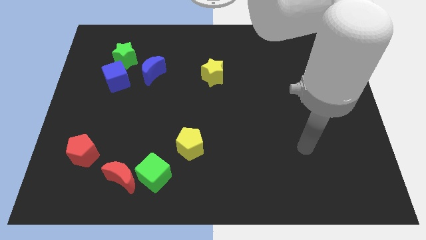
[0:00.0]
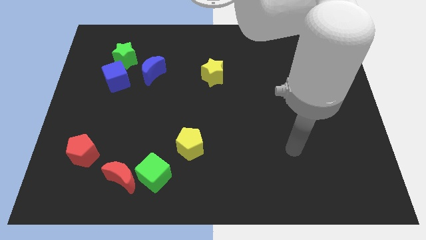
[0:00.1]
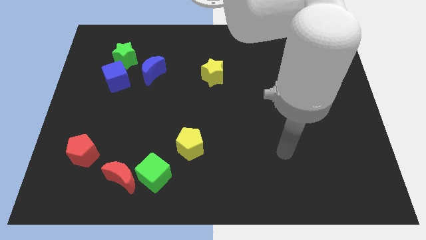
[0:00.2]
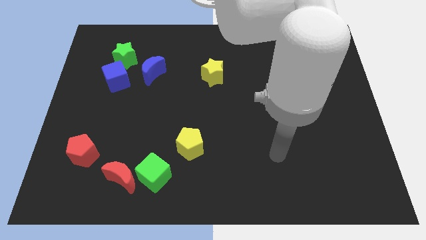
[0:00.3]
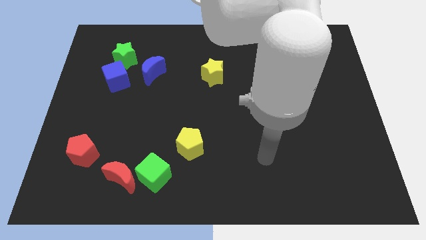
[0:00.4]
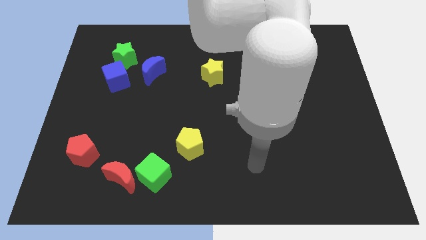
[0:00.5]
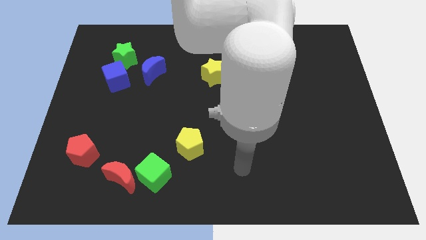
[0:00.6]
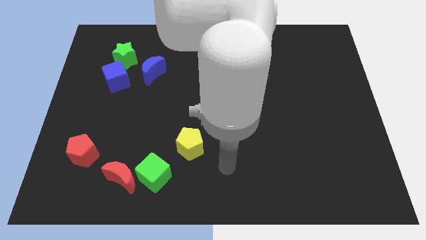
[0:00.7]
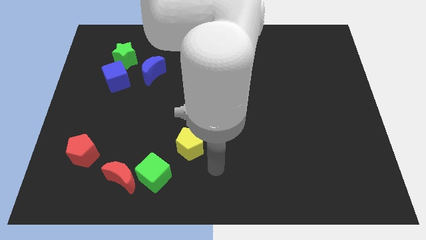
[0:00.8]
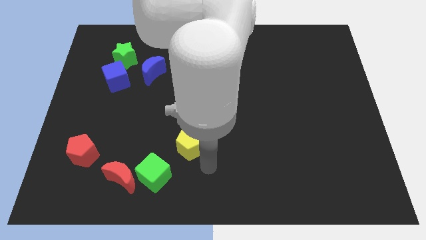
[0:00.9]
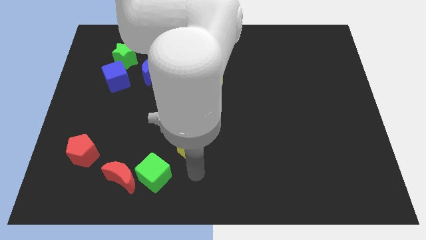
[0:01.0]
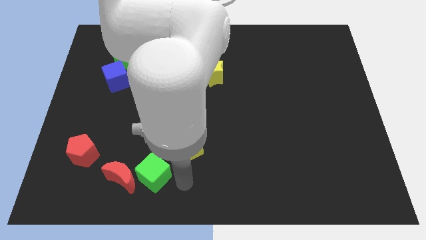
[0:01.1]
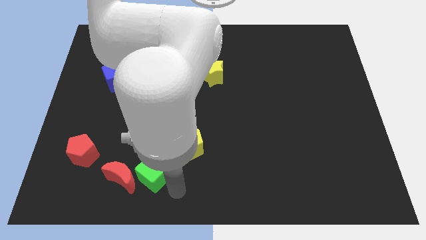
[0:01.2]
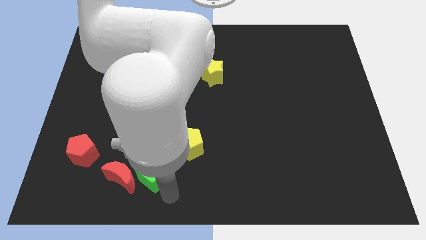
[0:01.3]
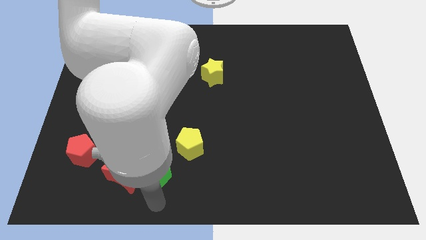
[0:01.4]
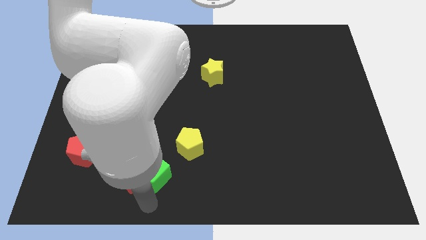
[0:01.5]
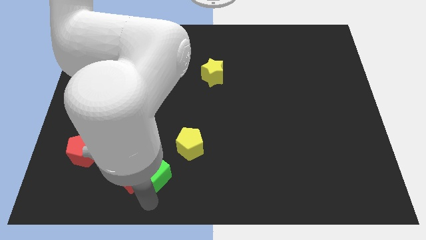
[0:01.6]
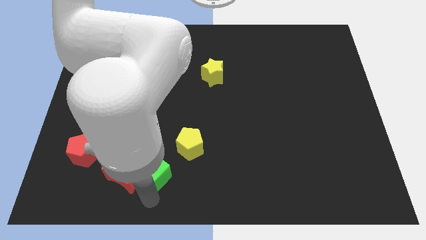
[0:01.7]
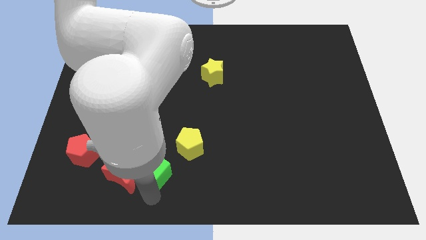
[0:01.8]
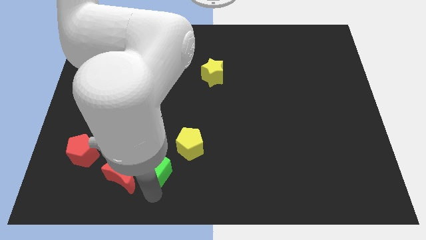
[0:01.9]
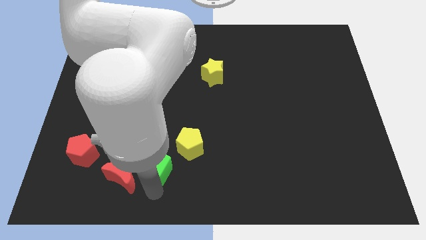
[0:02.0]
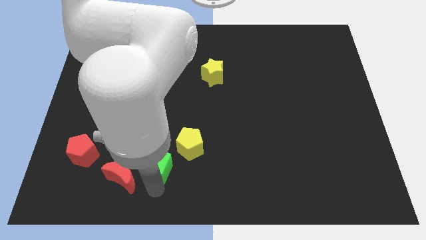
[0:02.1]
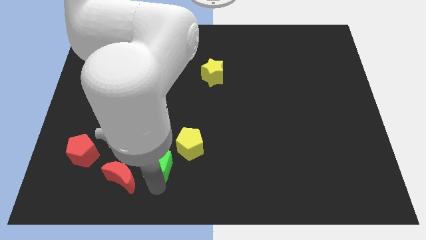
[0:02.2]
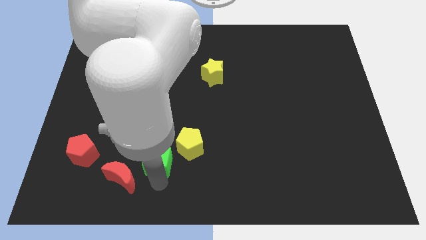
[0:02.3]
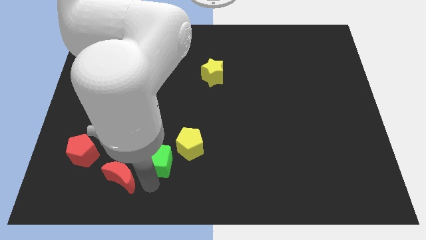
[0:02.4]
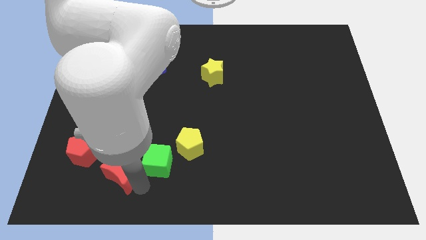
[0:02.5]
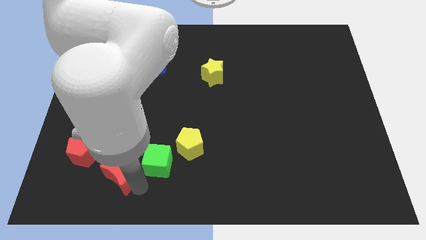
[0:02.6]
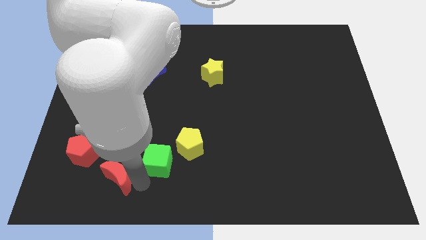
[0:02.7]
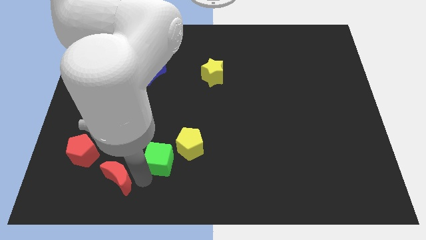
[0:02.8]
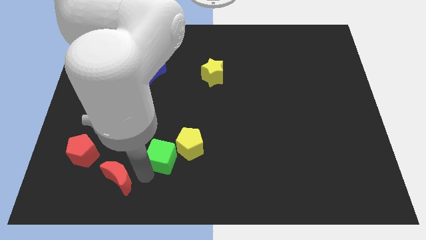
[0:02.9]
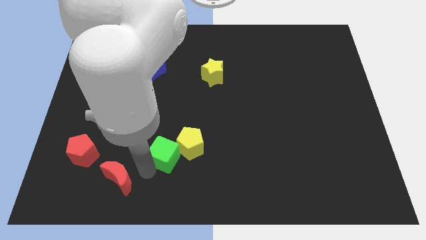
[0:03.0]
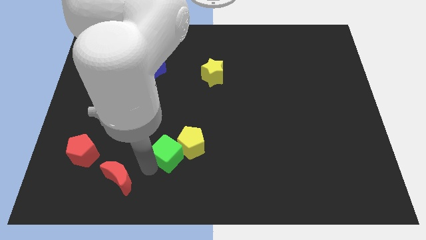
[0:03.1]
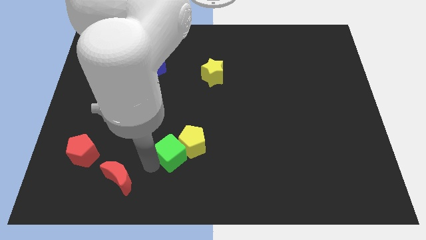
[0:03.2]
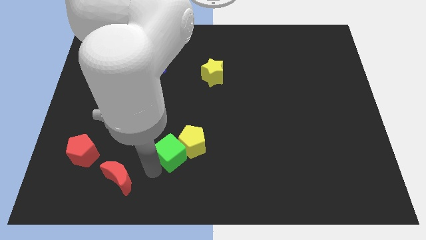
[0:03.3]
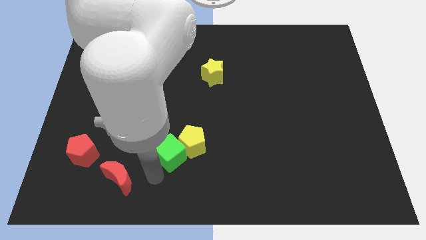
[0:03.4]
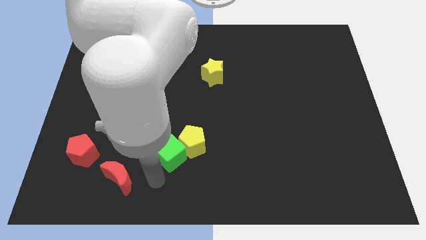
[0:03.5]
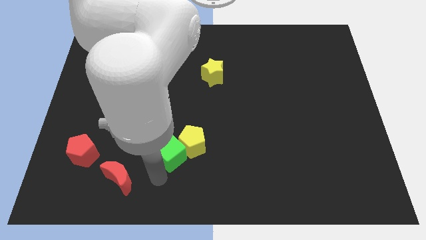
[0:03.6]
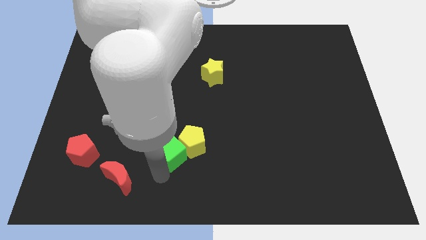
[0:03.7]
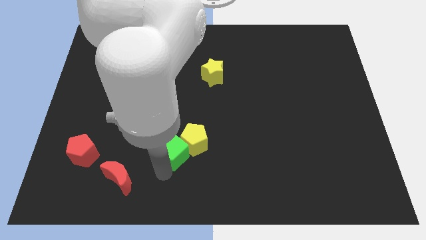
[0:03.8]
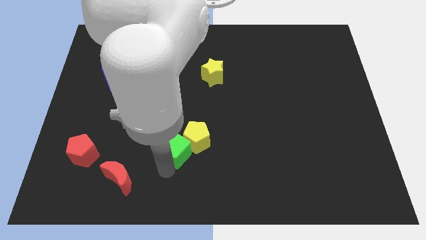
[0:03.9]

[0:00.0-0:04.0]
push the green cube diagonally up and to the right a little

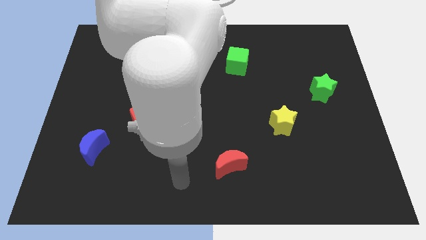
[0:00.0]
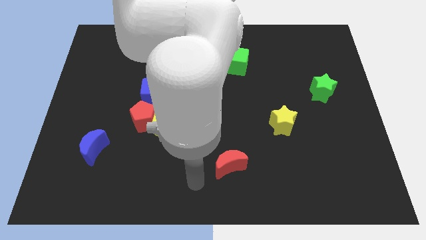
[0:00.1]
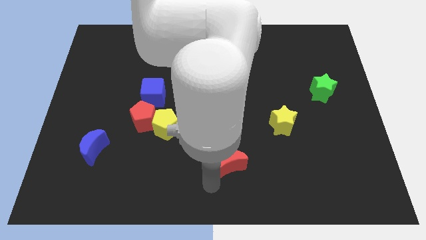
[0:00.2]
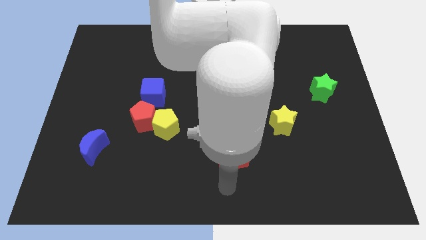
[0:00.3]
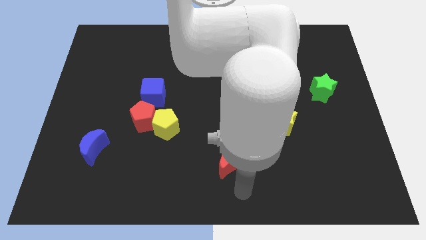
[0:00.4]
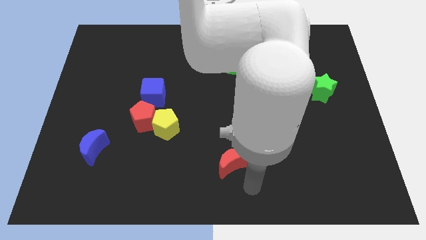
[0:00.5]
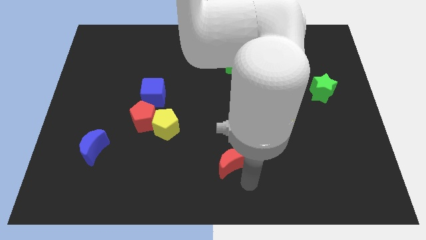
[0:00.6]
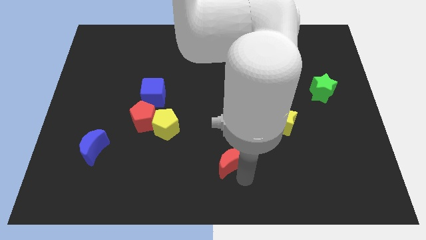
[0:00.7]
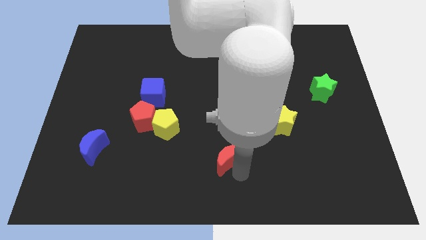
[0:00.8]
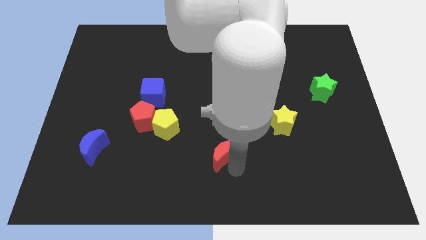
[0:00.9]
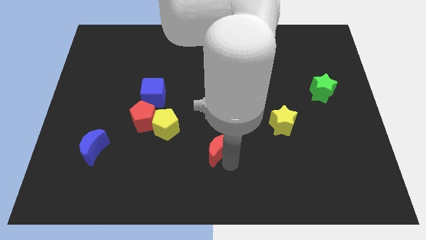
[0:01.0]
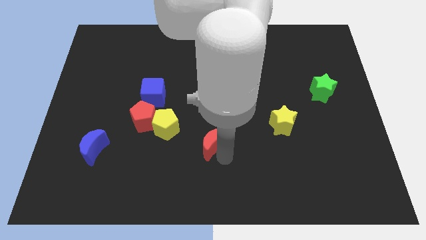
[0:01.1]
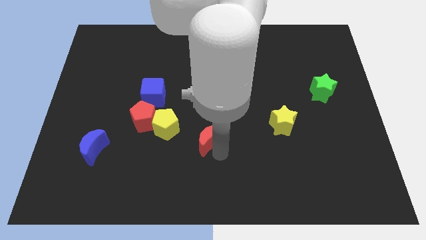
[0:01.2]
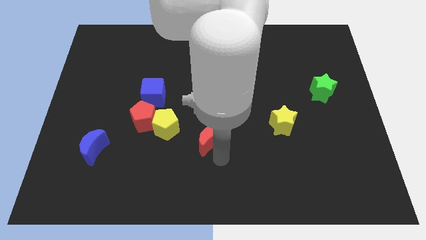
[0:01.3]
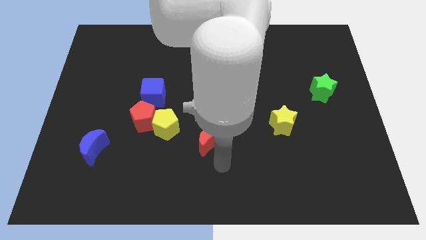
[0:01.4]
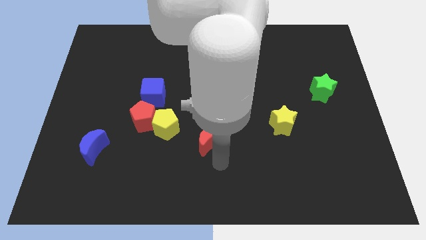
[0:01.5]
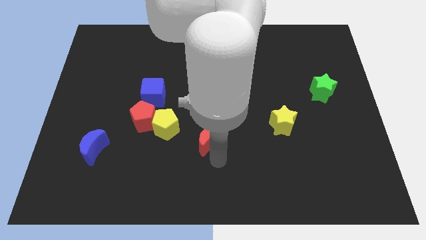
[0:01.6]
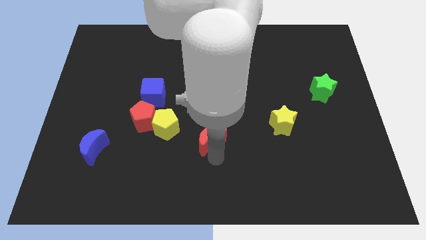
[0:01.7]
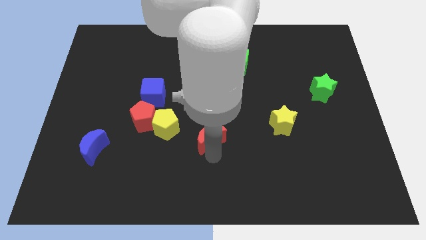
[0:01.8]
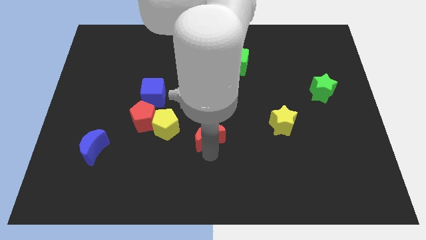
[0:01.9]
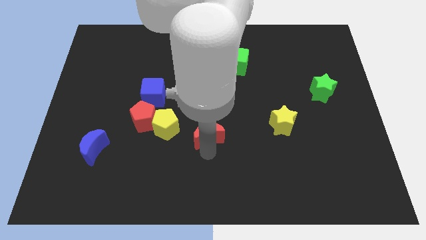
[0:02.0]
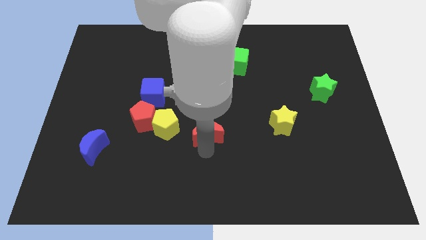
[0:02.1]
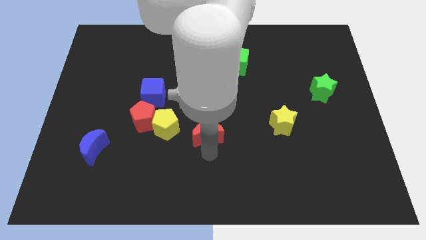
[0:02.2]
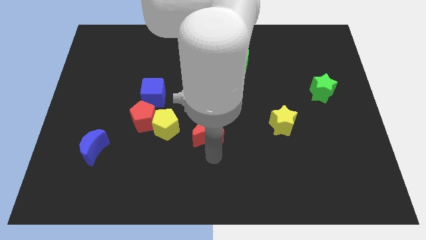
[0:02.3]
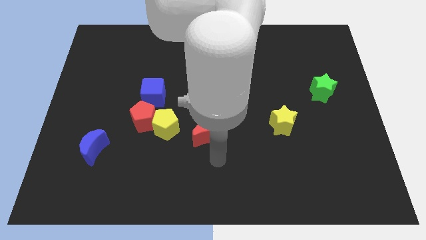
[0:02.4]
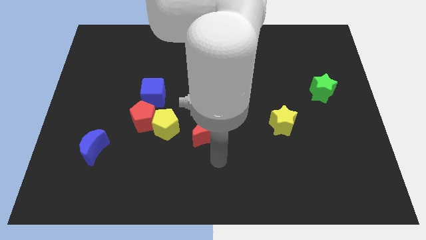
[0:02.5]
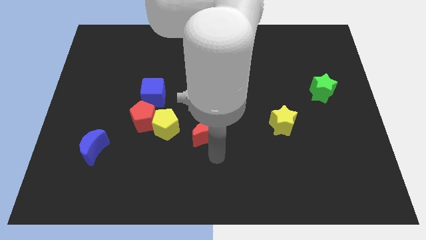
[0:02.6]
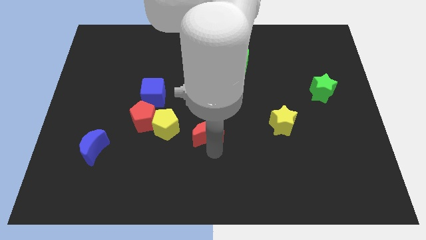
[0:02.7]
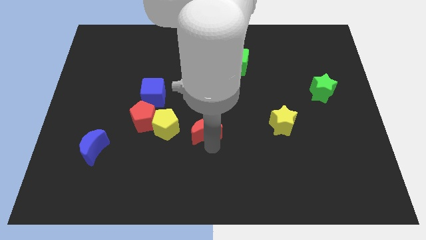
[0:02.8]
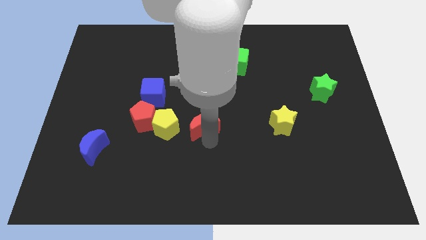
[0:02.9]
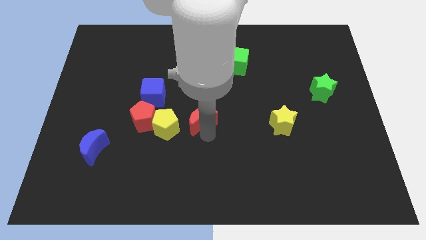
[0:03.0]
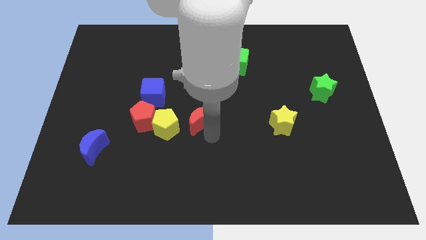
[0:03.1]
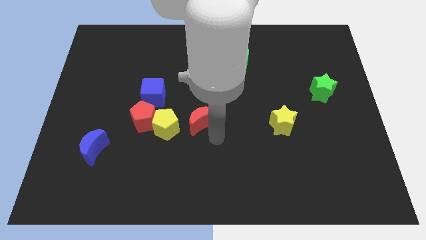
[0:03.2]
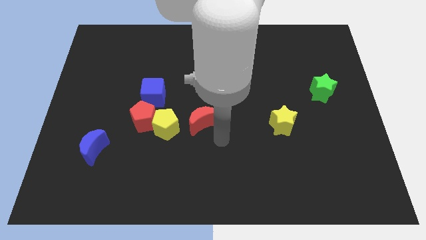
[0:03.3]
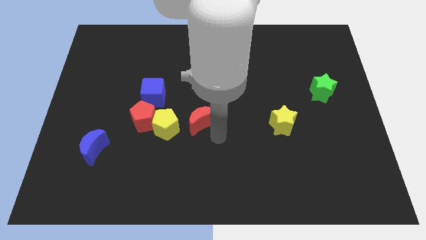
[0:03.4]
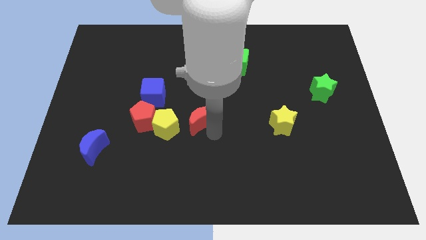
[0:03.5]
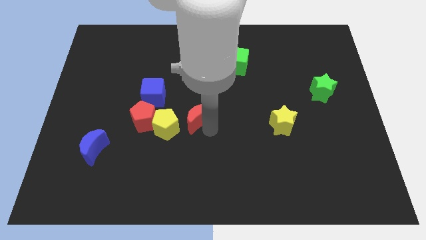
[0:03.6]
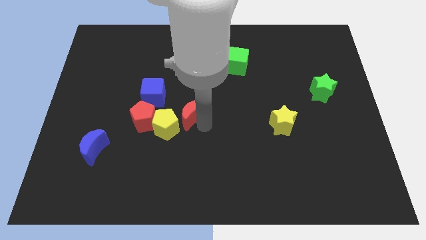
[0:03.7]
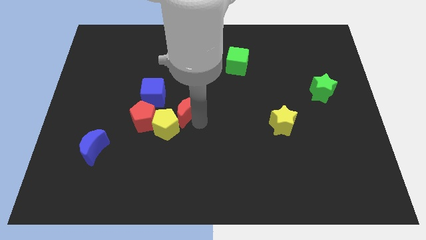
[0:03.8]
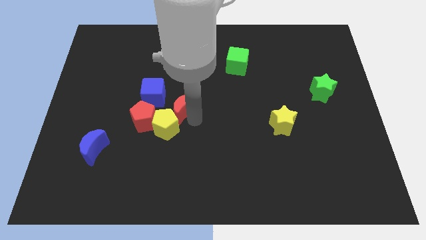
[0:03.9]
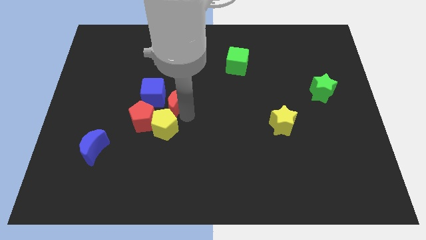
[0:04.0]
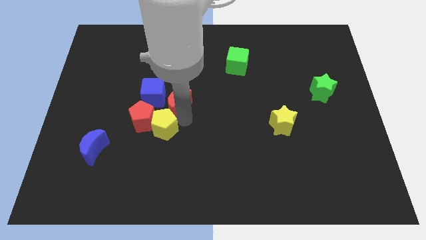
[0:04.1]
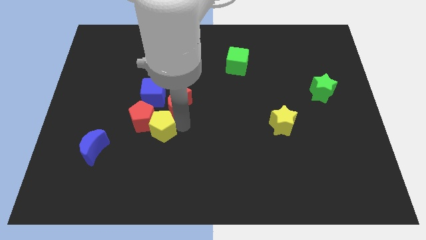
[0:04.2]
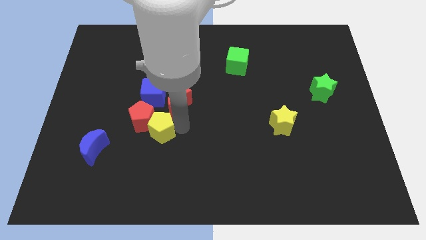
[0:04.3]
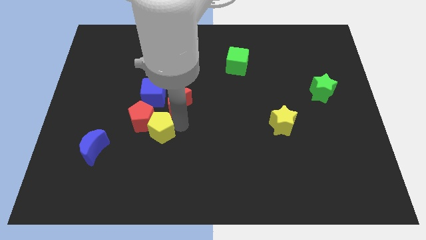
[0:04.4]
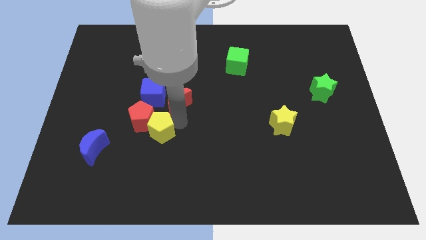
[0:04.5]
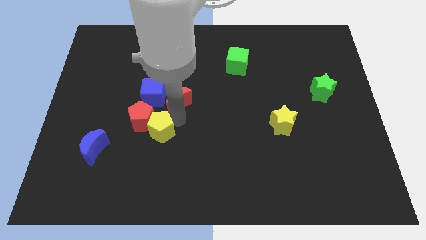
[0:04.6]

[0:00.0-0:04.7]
push the red moon up and left
